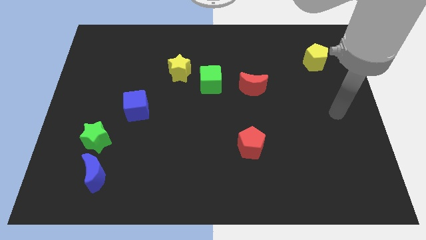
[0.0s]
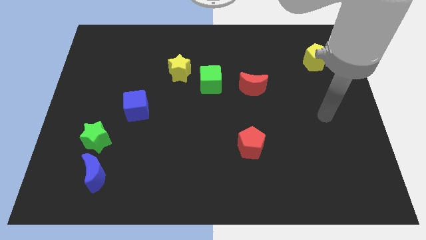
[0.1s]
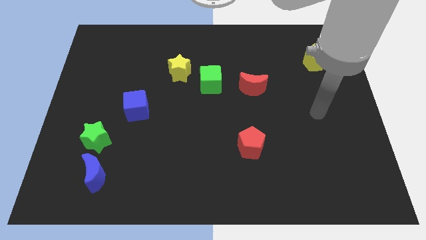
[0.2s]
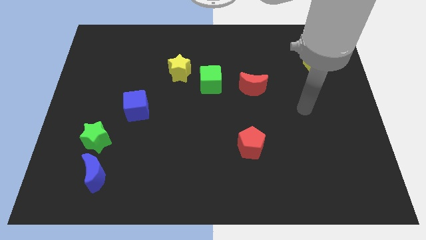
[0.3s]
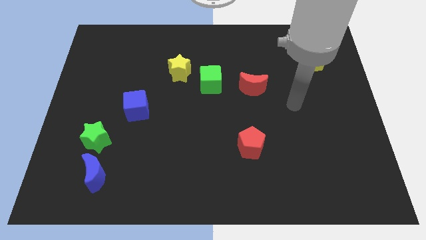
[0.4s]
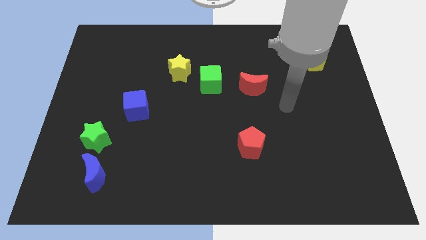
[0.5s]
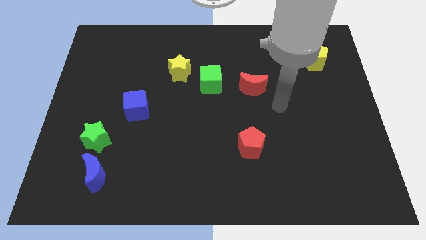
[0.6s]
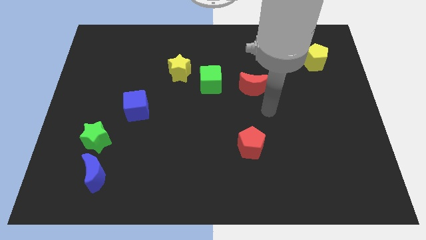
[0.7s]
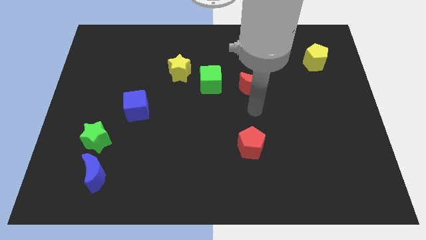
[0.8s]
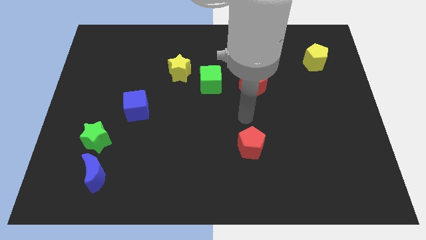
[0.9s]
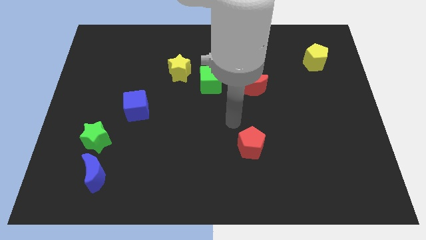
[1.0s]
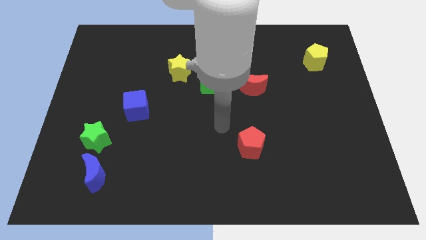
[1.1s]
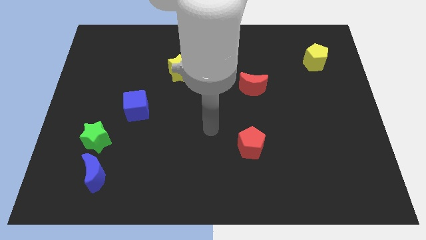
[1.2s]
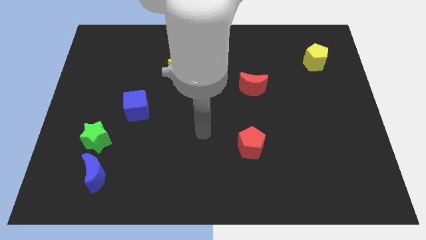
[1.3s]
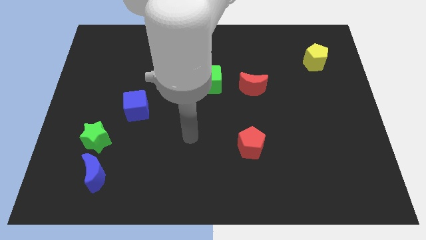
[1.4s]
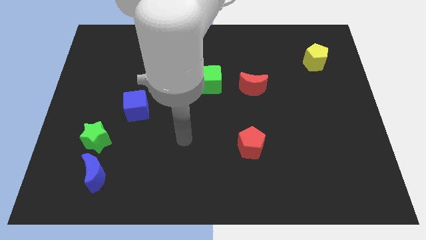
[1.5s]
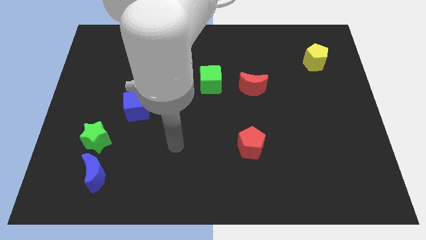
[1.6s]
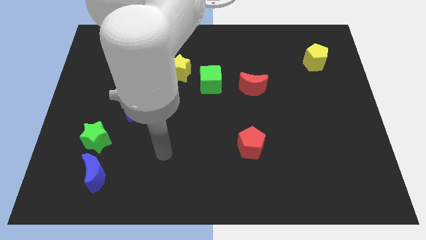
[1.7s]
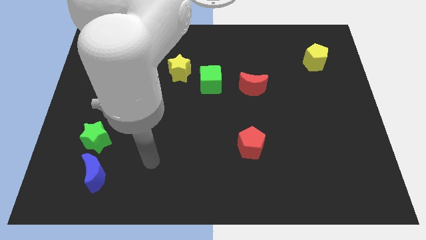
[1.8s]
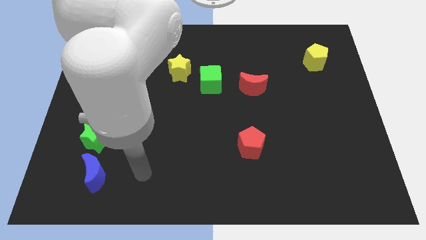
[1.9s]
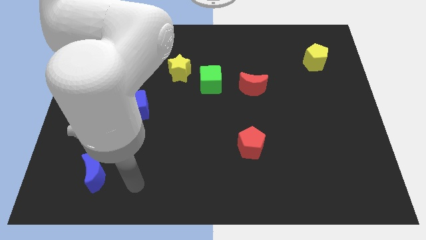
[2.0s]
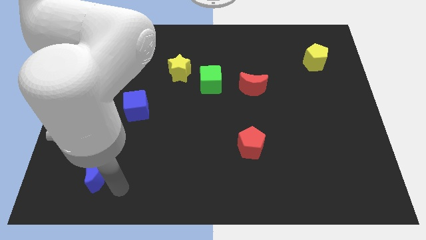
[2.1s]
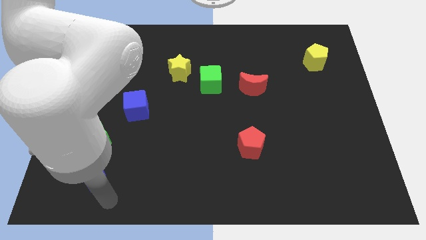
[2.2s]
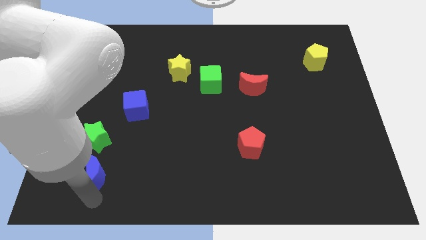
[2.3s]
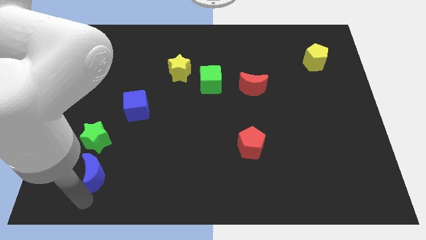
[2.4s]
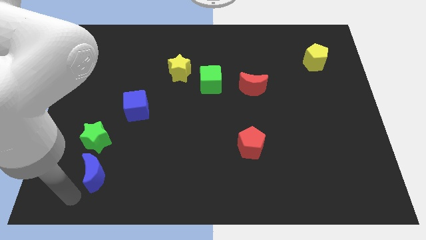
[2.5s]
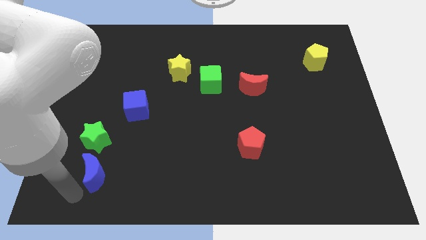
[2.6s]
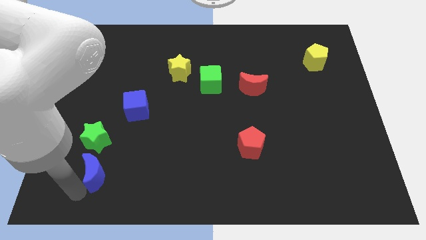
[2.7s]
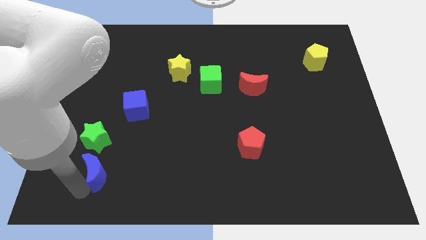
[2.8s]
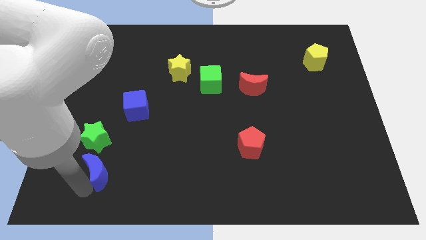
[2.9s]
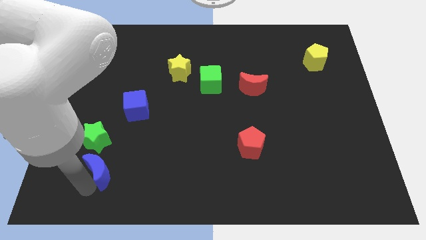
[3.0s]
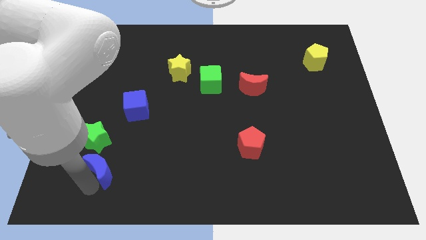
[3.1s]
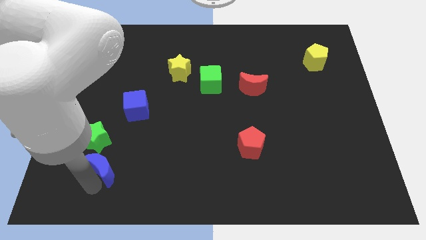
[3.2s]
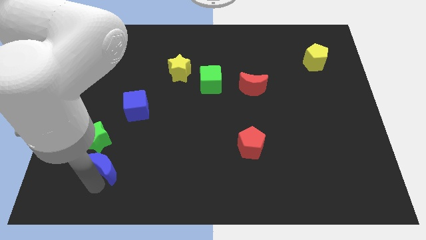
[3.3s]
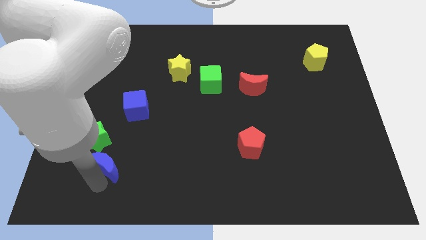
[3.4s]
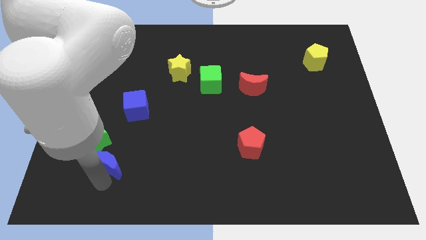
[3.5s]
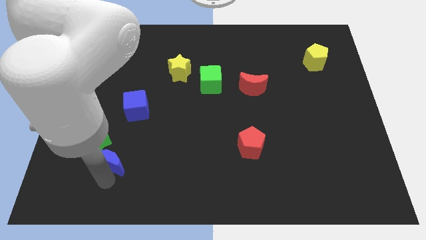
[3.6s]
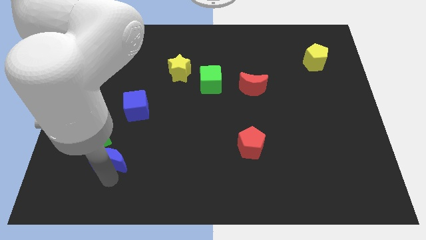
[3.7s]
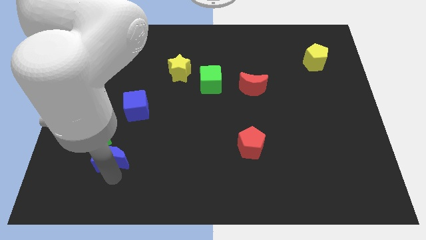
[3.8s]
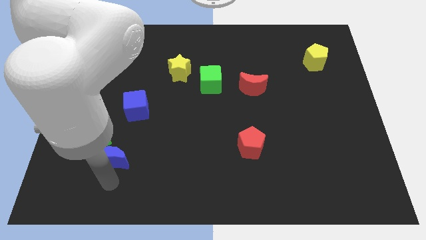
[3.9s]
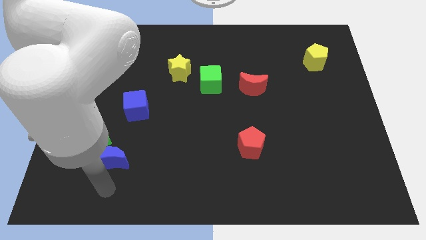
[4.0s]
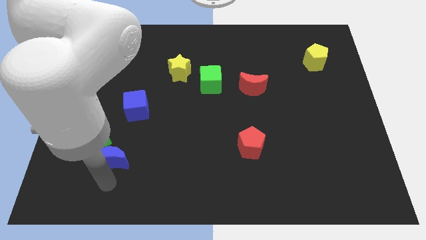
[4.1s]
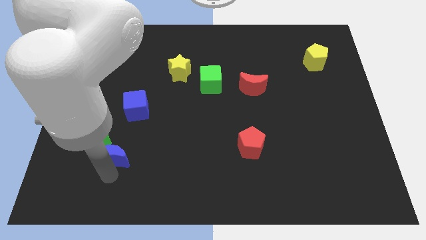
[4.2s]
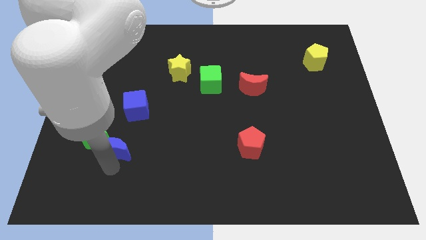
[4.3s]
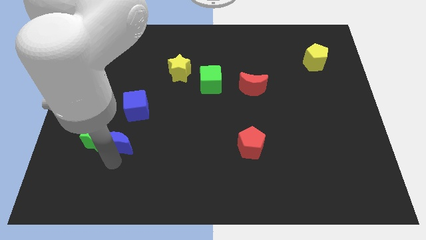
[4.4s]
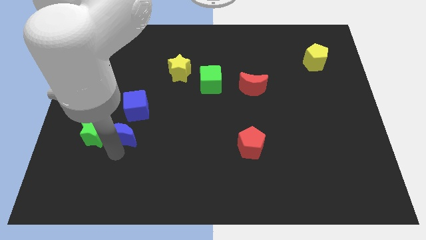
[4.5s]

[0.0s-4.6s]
slide the blue moon up a bit

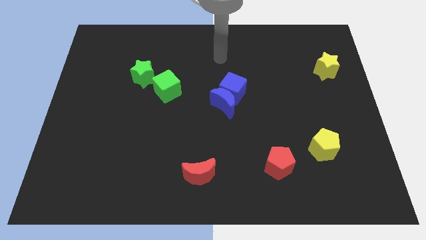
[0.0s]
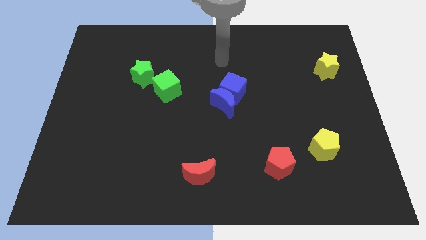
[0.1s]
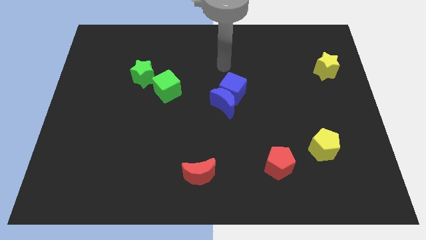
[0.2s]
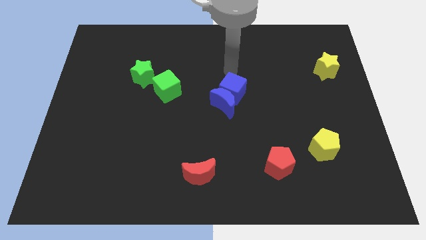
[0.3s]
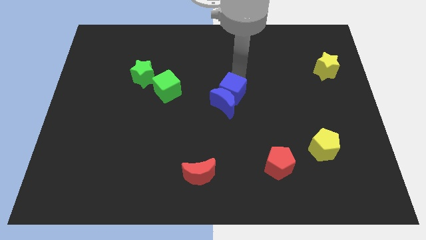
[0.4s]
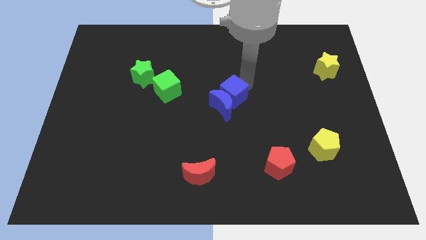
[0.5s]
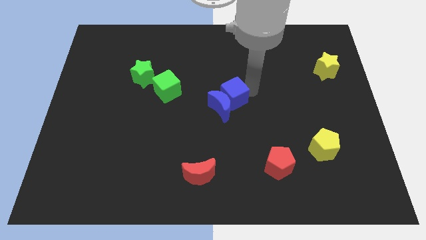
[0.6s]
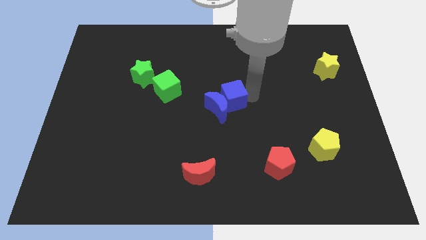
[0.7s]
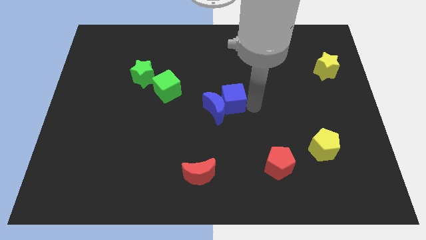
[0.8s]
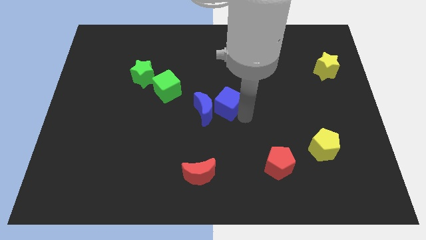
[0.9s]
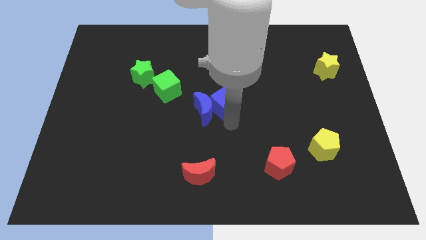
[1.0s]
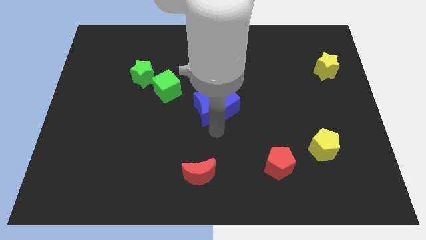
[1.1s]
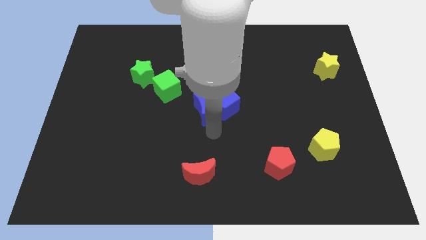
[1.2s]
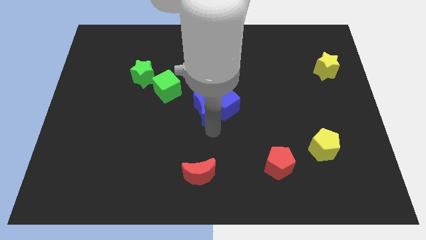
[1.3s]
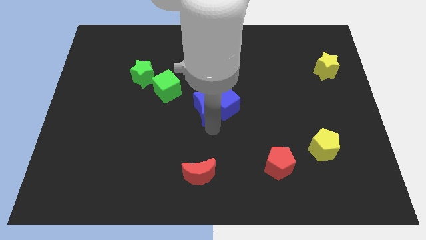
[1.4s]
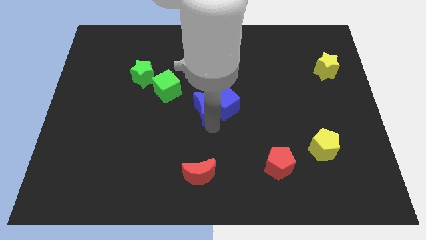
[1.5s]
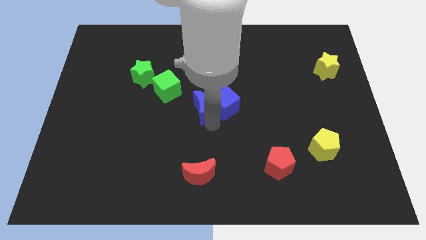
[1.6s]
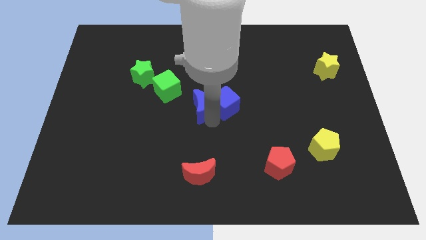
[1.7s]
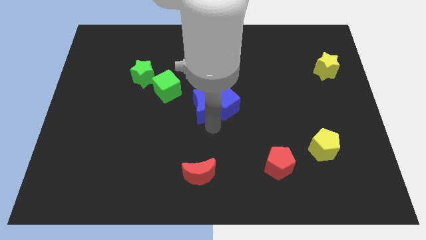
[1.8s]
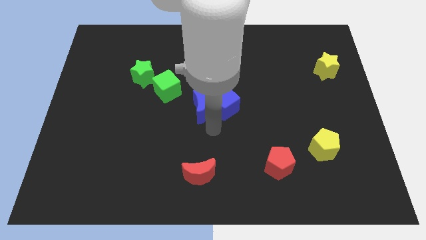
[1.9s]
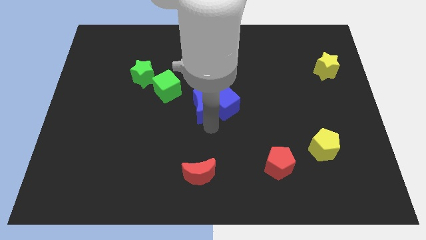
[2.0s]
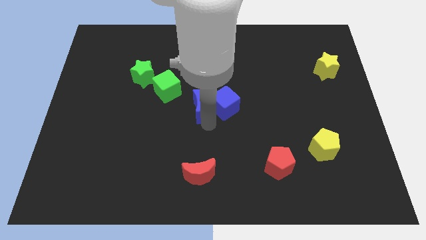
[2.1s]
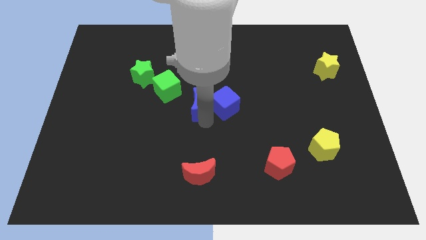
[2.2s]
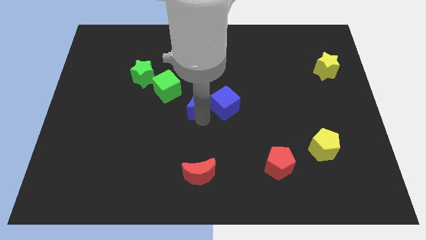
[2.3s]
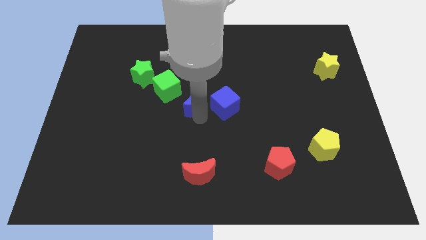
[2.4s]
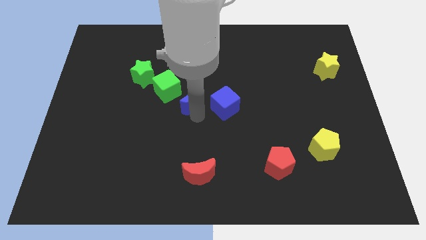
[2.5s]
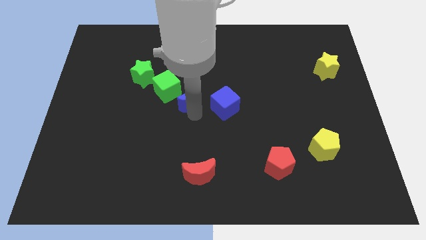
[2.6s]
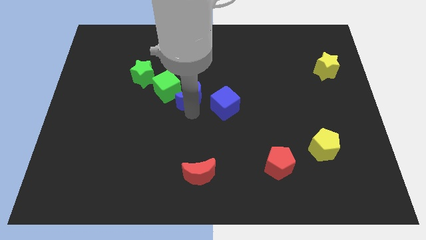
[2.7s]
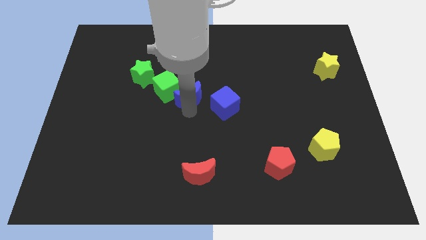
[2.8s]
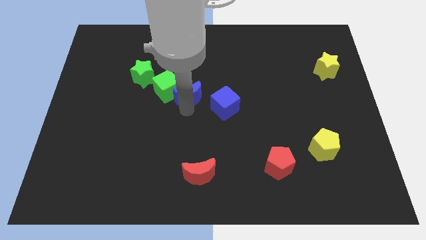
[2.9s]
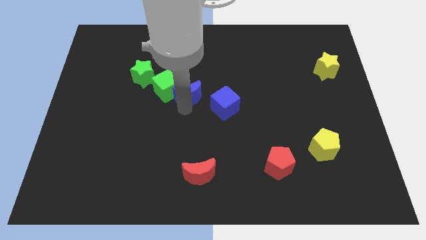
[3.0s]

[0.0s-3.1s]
slightly move the blue moon upwards and then left
